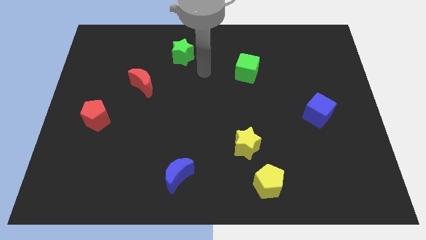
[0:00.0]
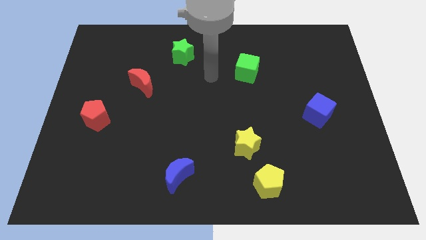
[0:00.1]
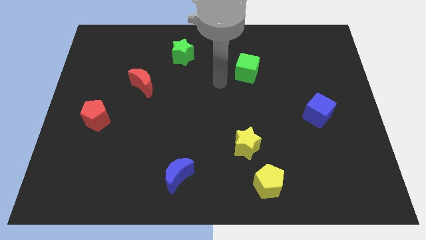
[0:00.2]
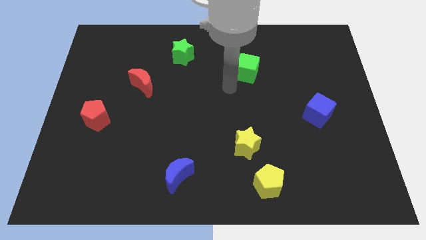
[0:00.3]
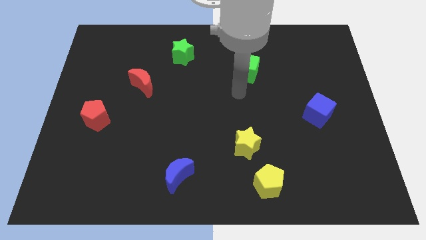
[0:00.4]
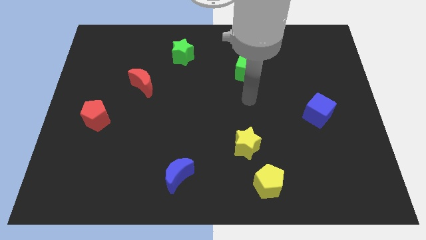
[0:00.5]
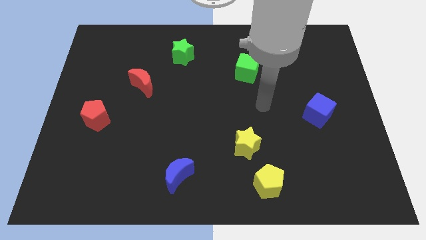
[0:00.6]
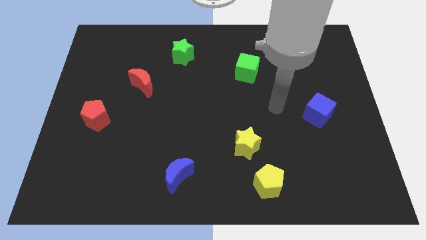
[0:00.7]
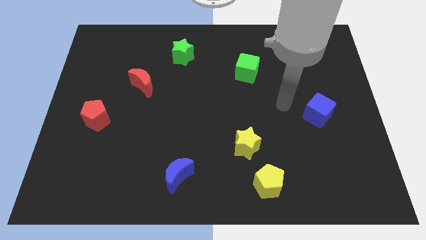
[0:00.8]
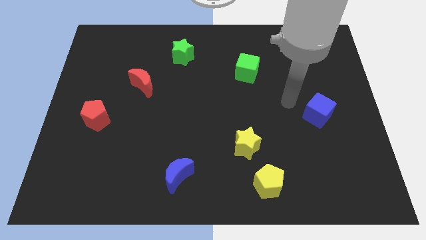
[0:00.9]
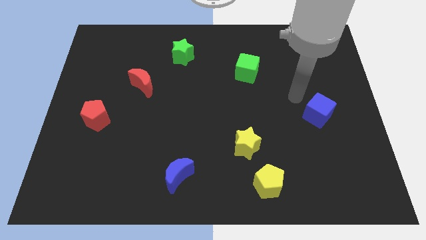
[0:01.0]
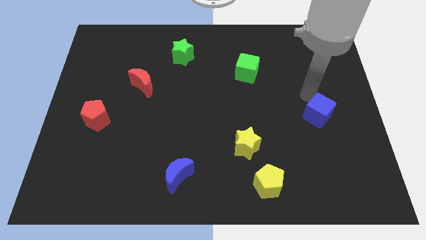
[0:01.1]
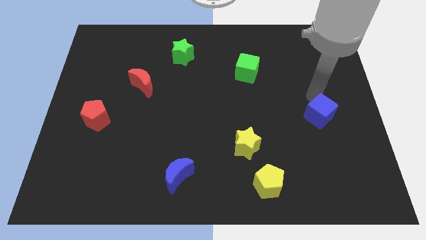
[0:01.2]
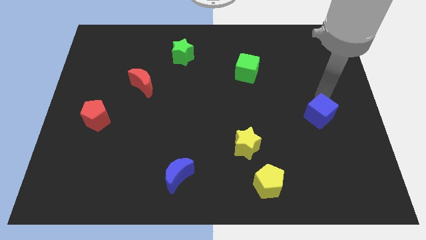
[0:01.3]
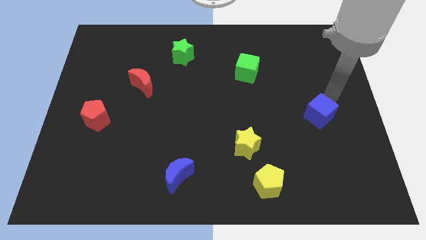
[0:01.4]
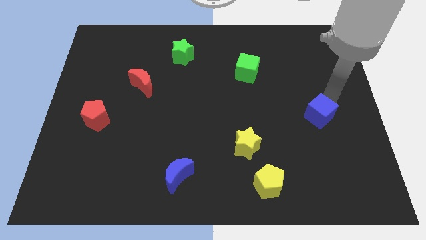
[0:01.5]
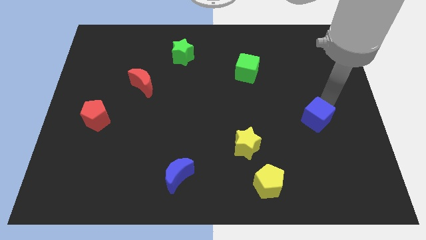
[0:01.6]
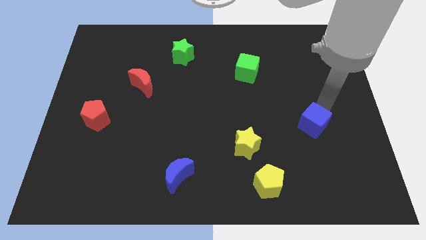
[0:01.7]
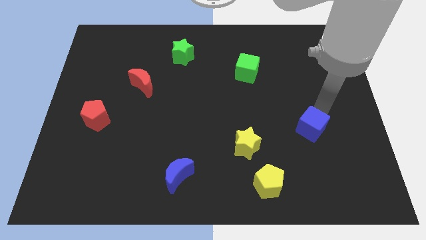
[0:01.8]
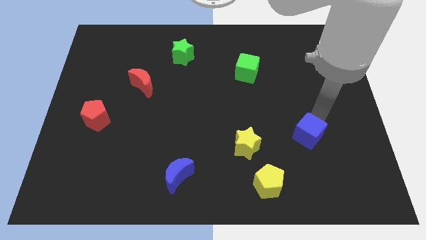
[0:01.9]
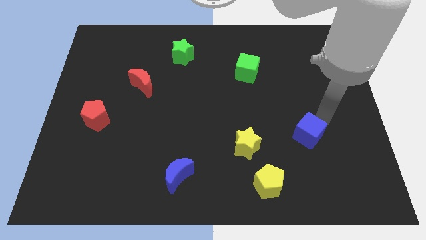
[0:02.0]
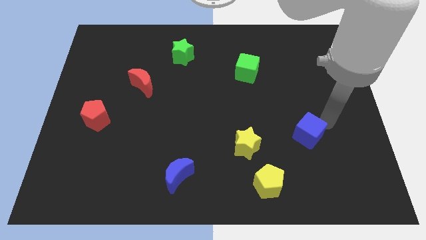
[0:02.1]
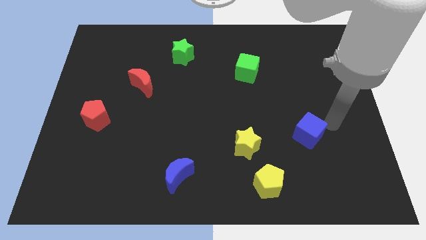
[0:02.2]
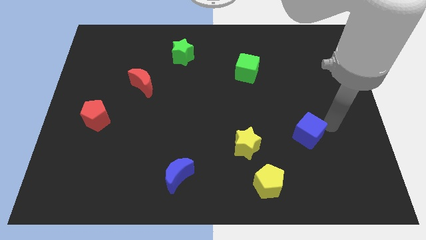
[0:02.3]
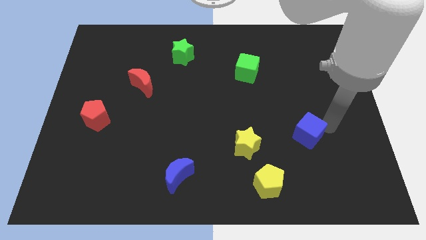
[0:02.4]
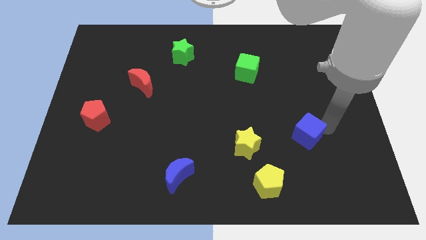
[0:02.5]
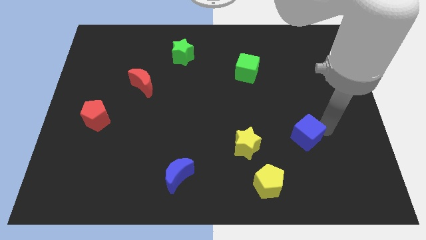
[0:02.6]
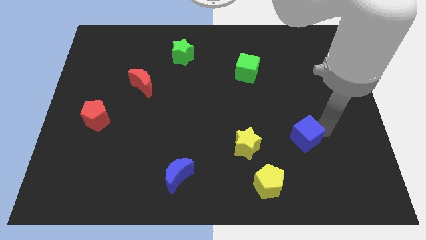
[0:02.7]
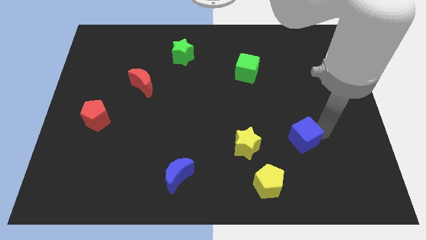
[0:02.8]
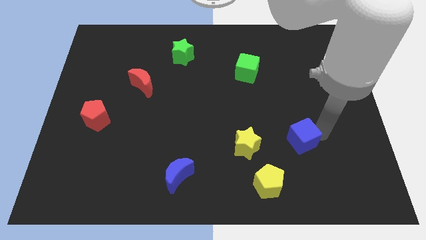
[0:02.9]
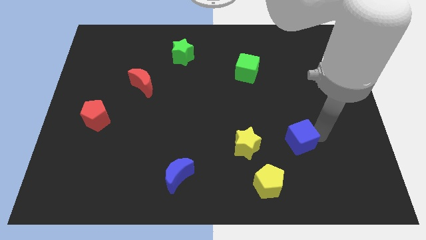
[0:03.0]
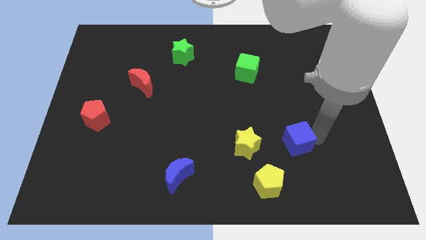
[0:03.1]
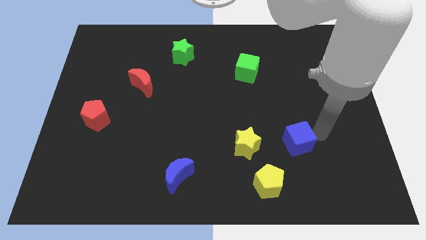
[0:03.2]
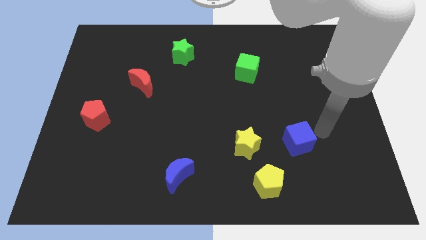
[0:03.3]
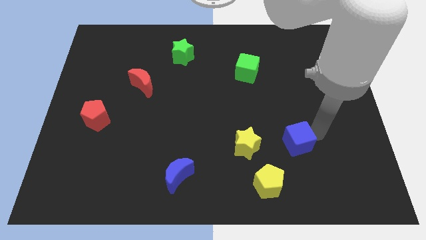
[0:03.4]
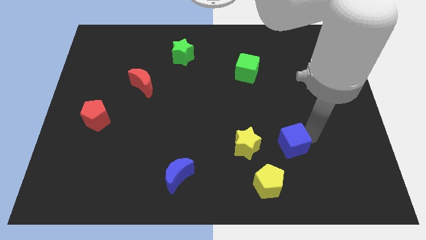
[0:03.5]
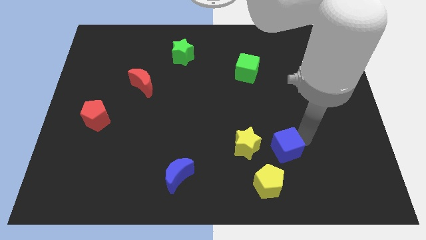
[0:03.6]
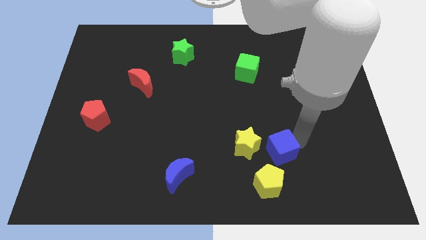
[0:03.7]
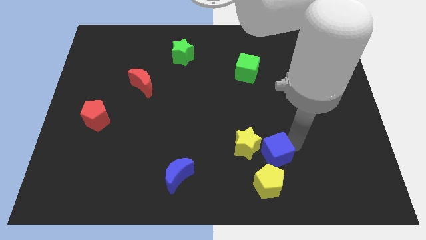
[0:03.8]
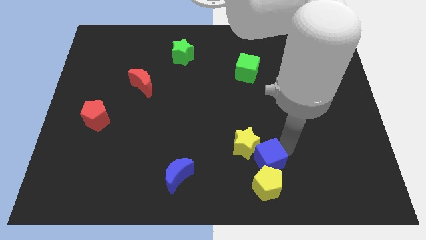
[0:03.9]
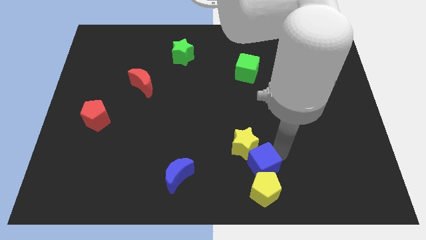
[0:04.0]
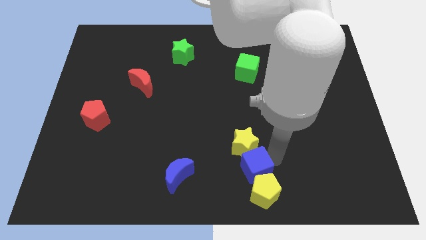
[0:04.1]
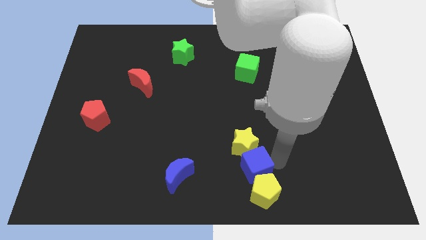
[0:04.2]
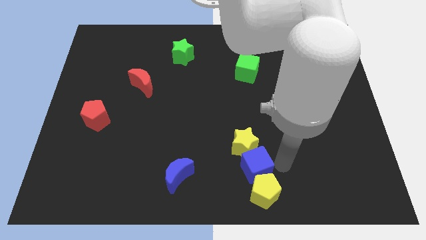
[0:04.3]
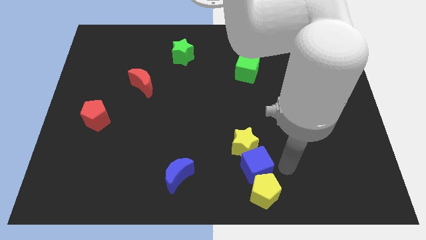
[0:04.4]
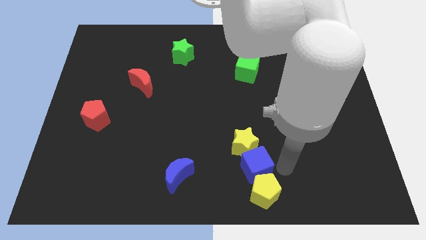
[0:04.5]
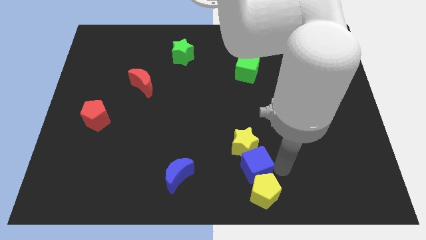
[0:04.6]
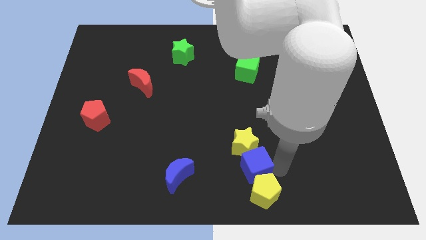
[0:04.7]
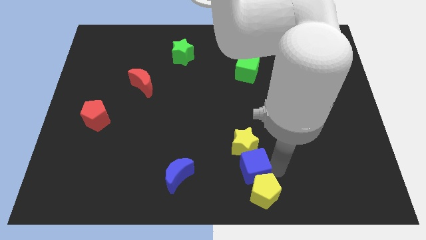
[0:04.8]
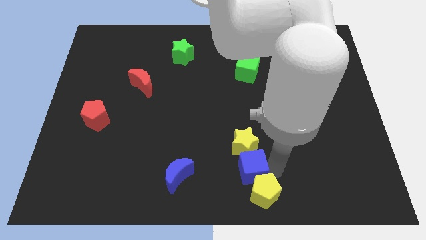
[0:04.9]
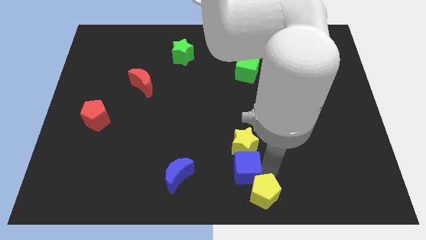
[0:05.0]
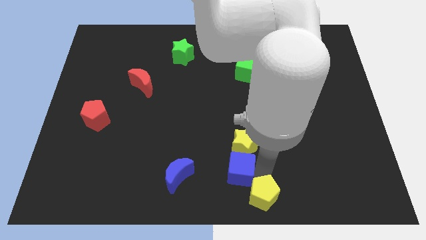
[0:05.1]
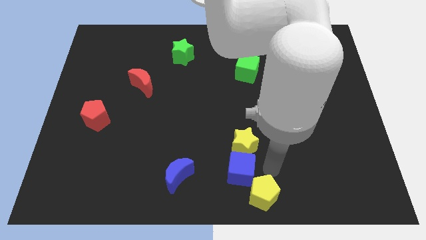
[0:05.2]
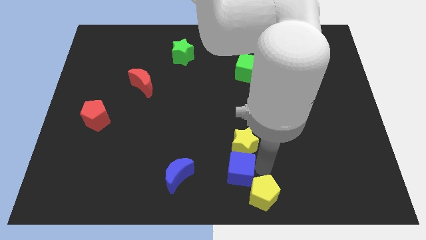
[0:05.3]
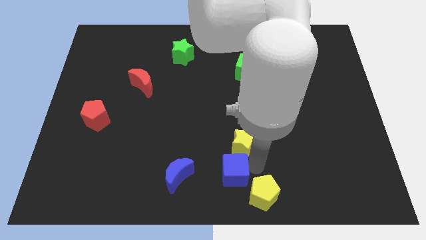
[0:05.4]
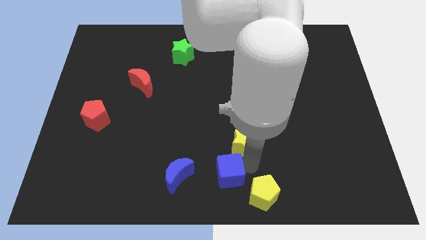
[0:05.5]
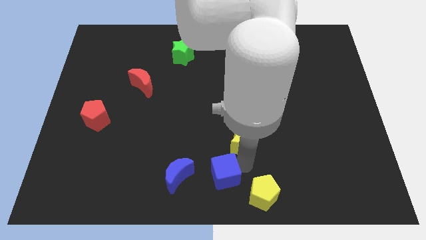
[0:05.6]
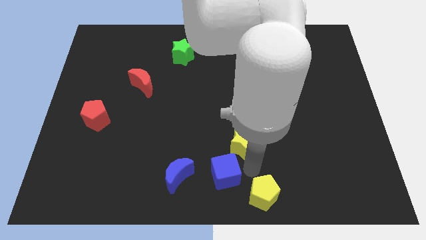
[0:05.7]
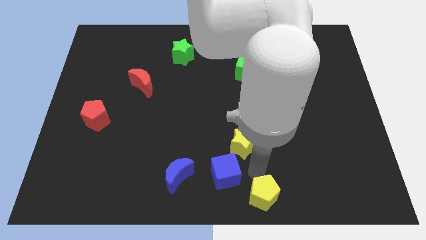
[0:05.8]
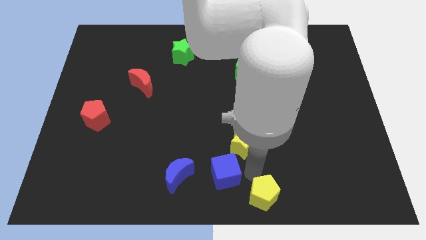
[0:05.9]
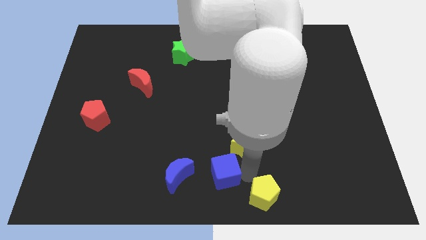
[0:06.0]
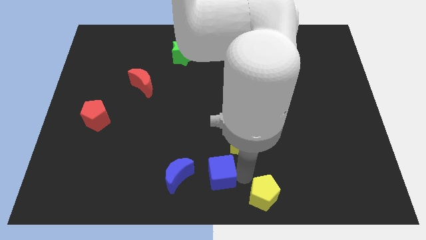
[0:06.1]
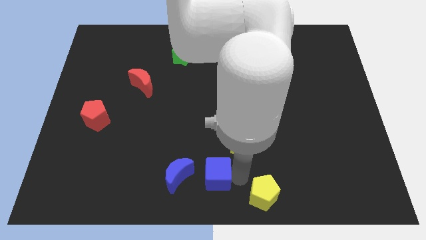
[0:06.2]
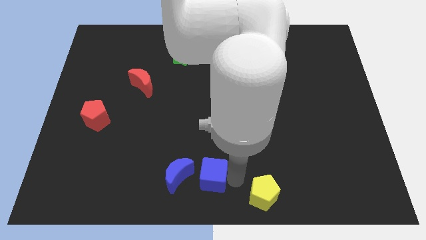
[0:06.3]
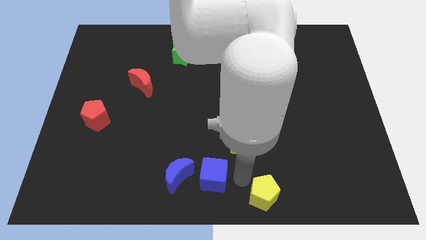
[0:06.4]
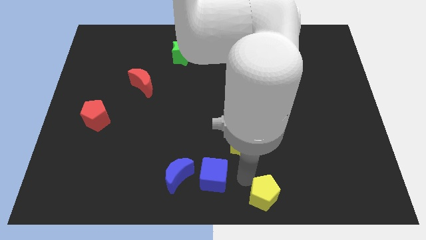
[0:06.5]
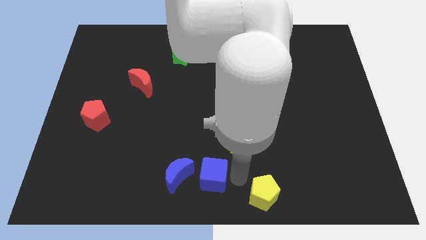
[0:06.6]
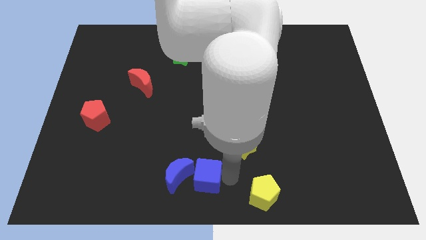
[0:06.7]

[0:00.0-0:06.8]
put the blue cube towards the blue moon
